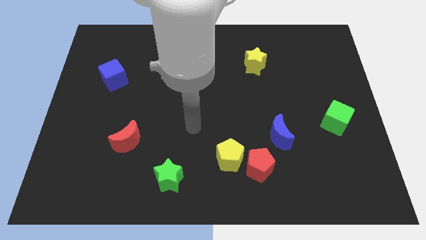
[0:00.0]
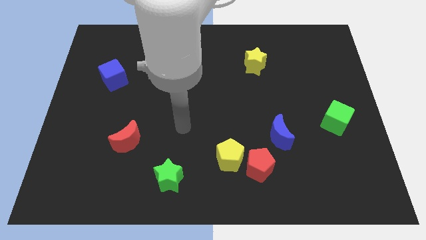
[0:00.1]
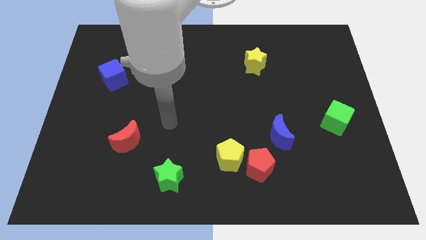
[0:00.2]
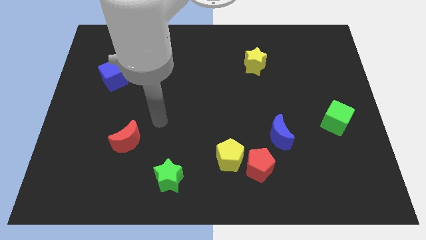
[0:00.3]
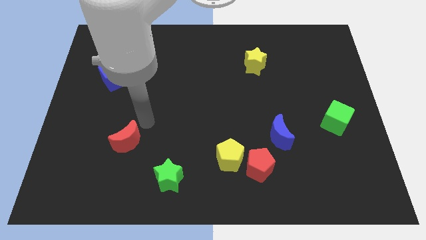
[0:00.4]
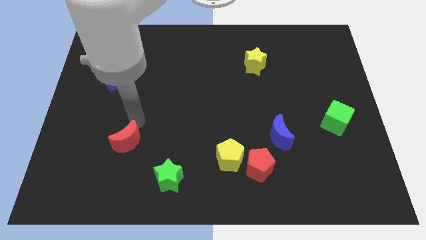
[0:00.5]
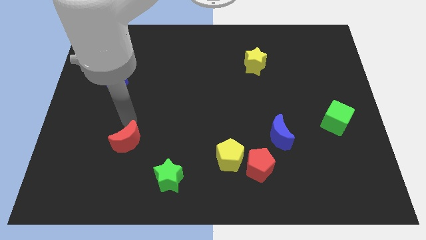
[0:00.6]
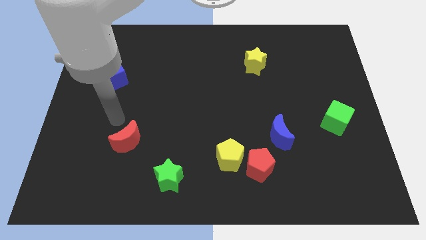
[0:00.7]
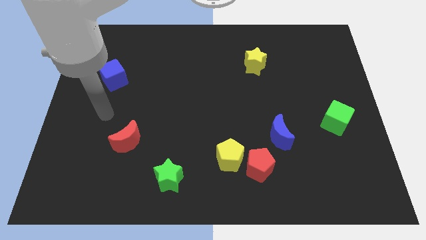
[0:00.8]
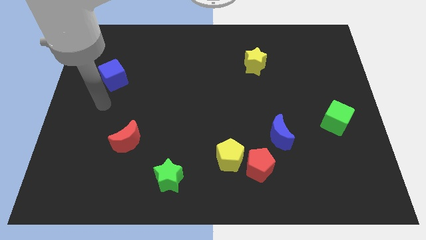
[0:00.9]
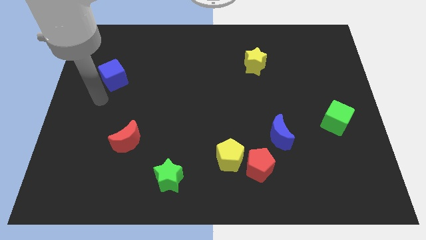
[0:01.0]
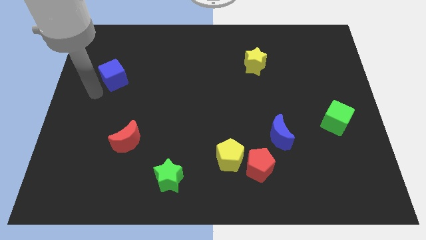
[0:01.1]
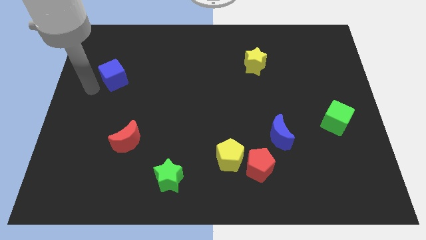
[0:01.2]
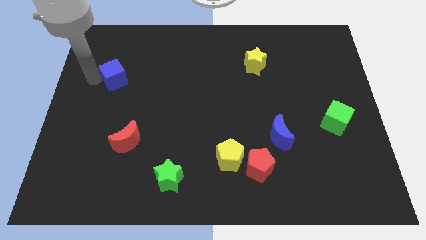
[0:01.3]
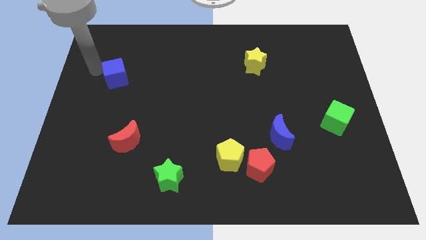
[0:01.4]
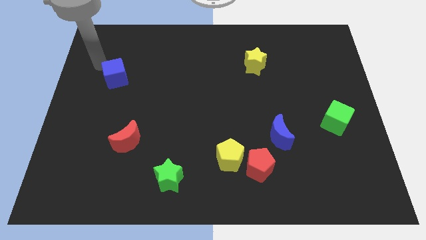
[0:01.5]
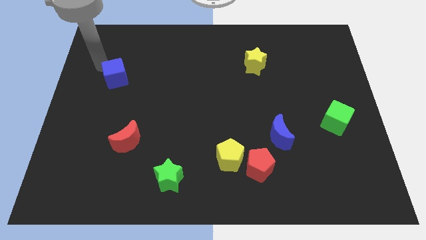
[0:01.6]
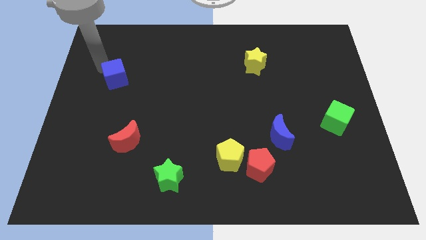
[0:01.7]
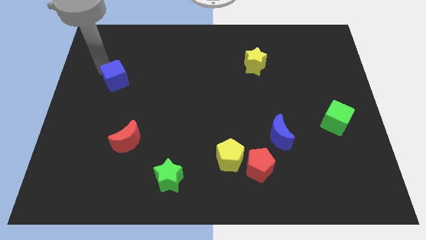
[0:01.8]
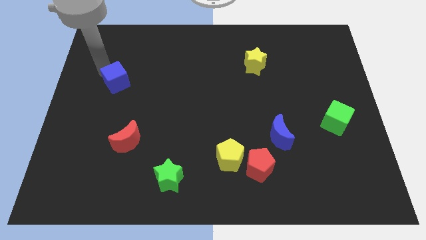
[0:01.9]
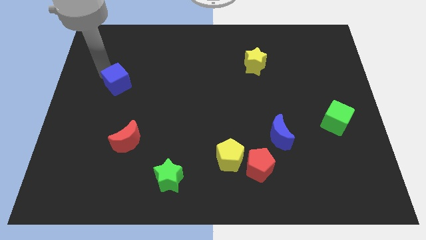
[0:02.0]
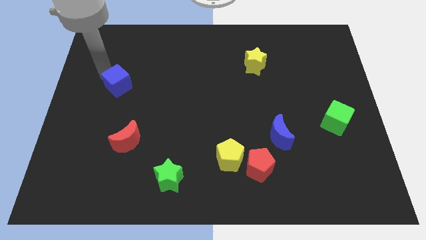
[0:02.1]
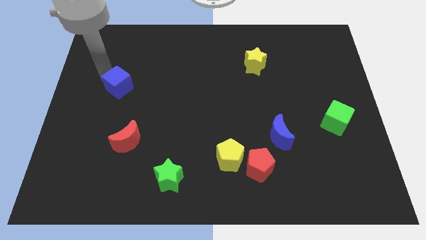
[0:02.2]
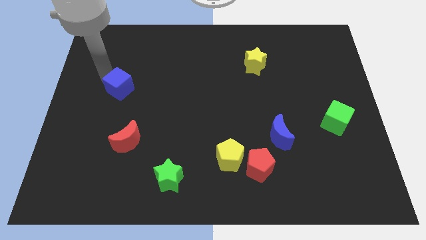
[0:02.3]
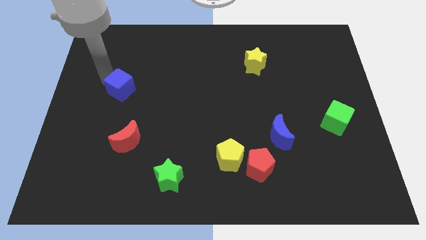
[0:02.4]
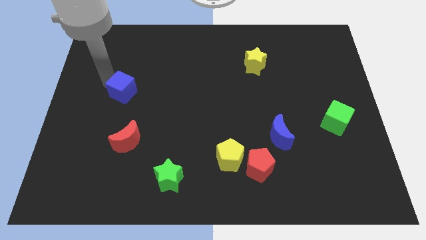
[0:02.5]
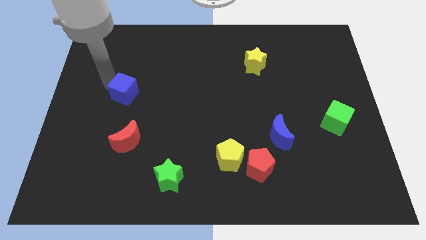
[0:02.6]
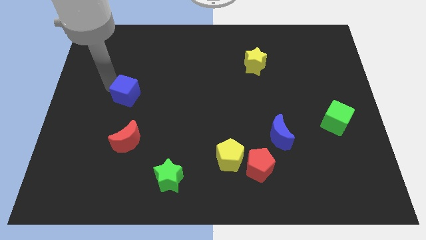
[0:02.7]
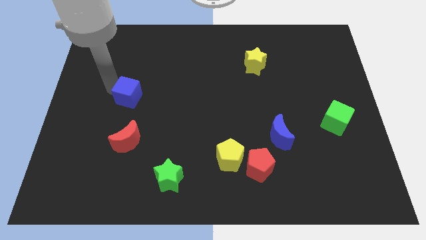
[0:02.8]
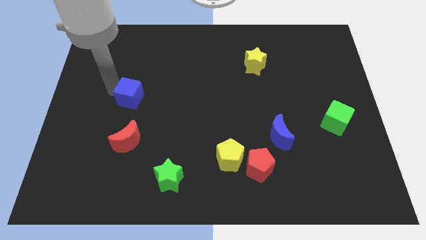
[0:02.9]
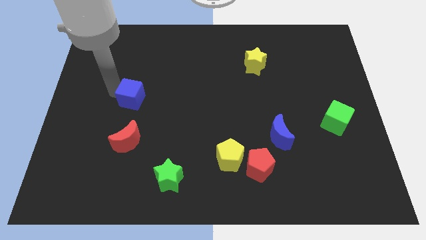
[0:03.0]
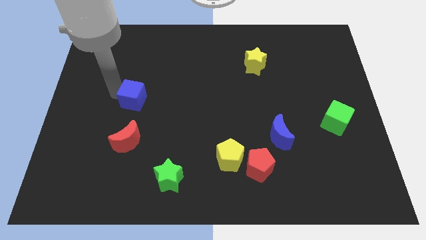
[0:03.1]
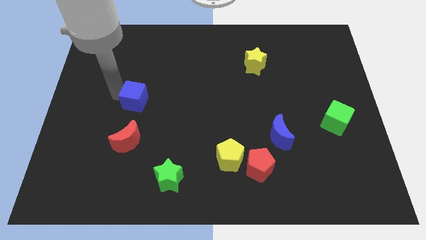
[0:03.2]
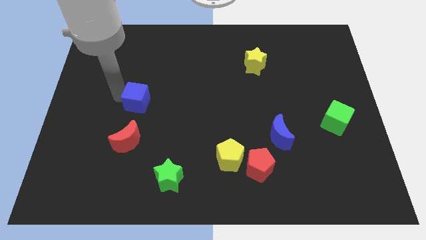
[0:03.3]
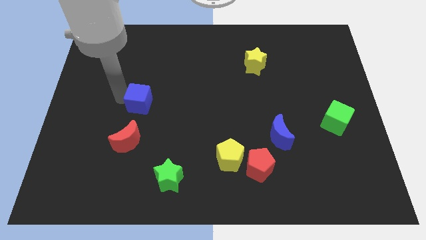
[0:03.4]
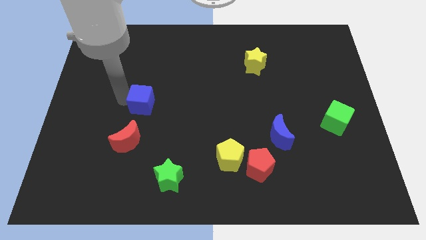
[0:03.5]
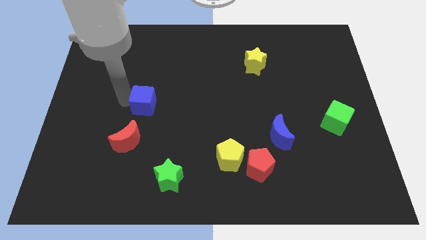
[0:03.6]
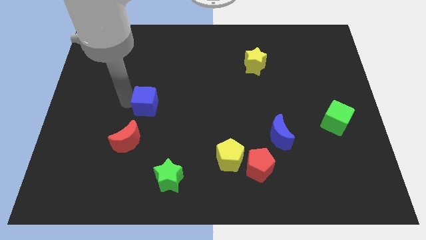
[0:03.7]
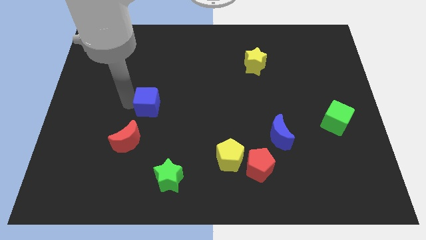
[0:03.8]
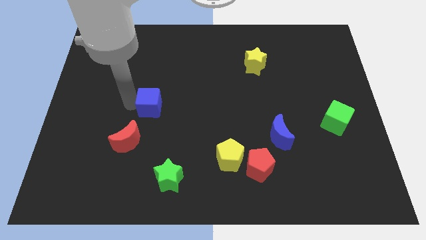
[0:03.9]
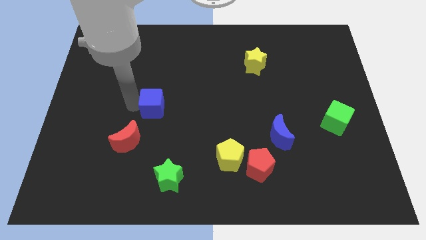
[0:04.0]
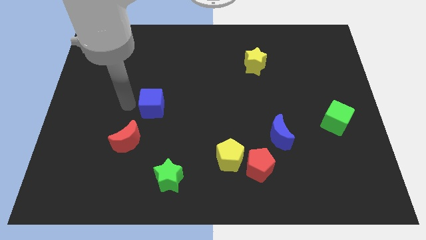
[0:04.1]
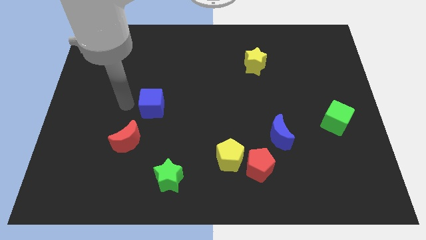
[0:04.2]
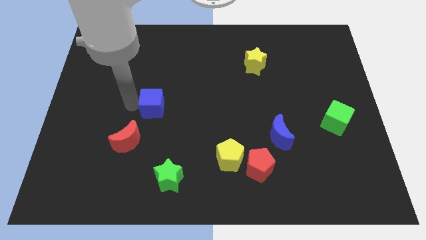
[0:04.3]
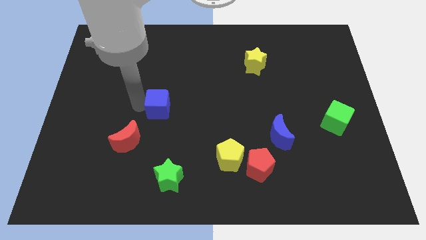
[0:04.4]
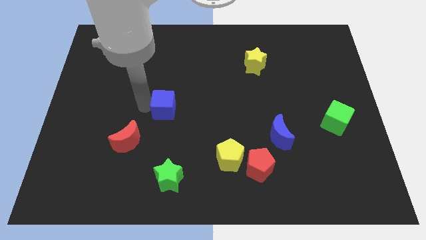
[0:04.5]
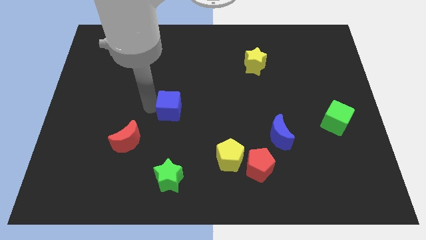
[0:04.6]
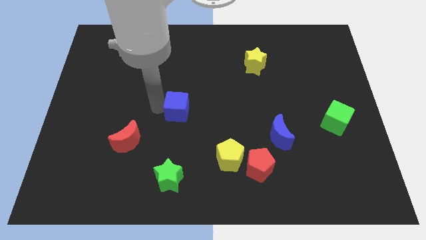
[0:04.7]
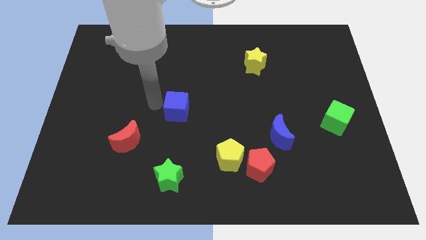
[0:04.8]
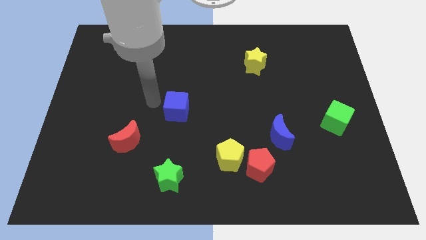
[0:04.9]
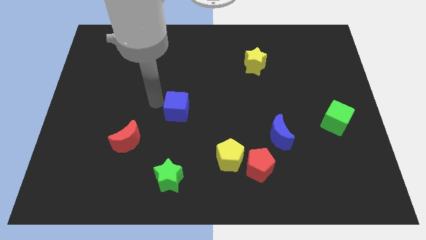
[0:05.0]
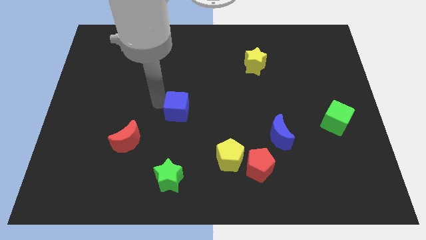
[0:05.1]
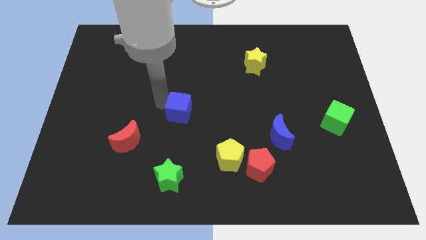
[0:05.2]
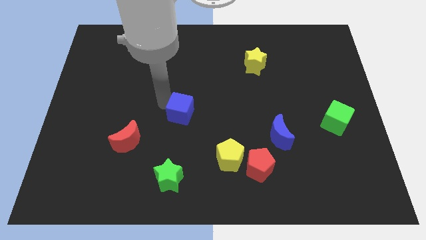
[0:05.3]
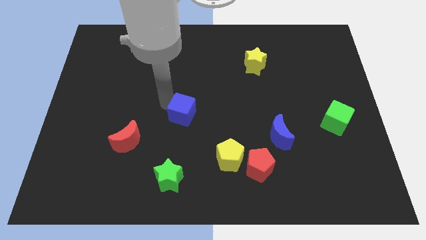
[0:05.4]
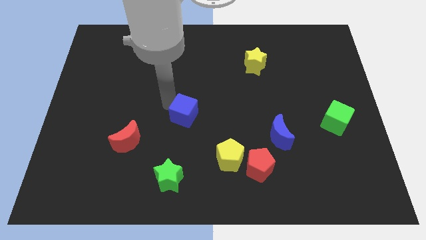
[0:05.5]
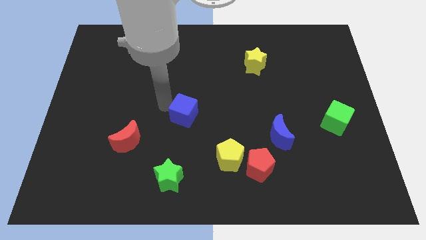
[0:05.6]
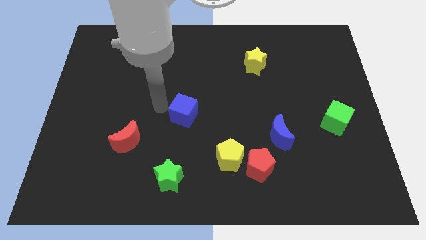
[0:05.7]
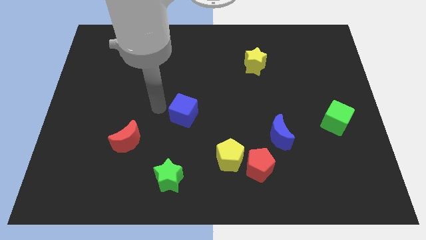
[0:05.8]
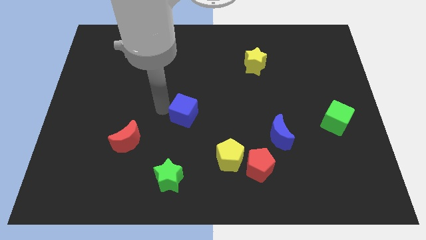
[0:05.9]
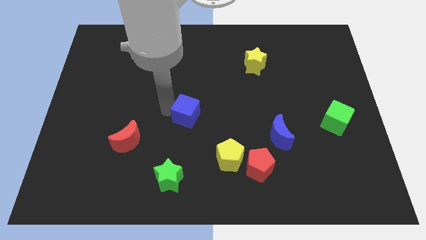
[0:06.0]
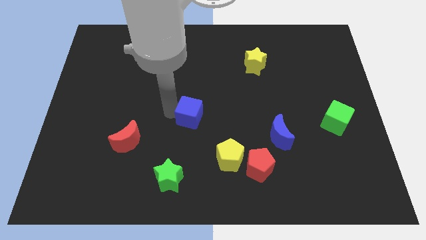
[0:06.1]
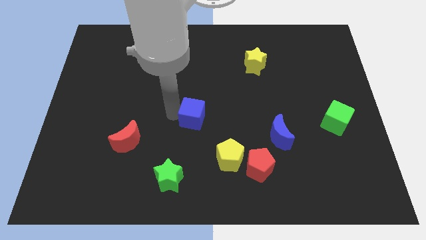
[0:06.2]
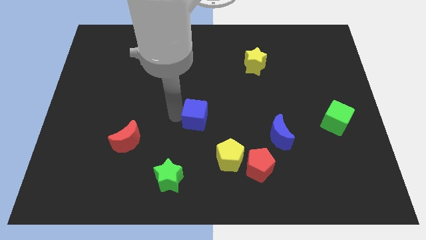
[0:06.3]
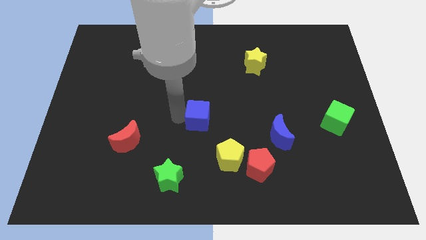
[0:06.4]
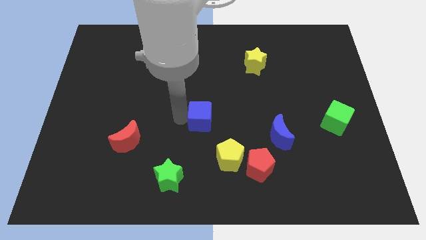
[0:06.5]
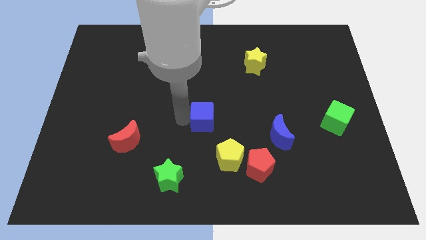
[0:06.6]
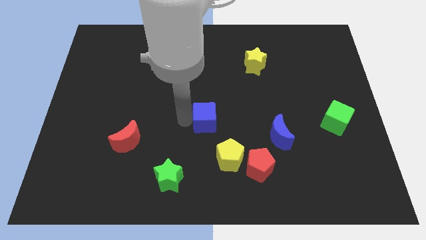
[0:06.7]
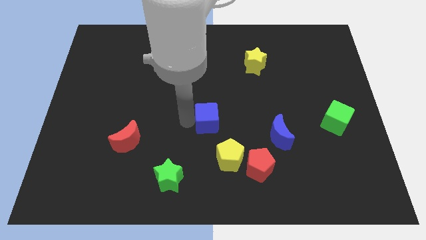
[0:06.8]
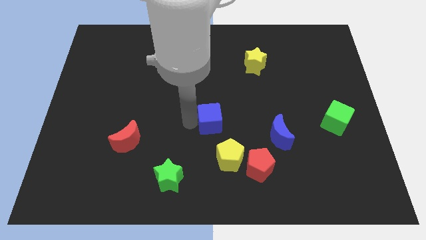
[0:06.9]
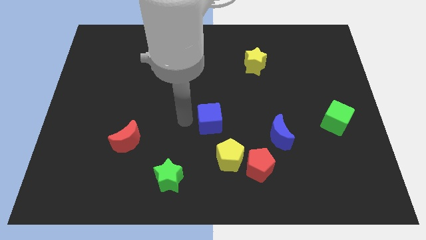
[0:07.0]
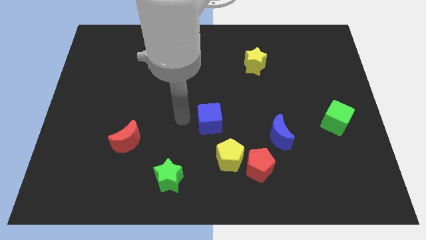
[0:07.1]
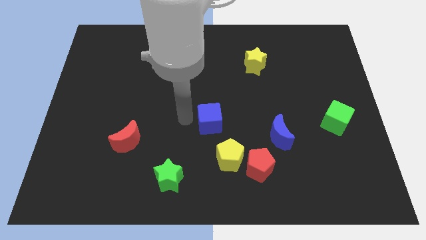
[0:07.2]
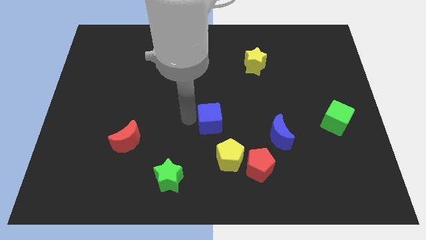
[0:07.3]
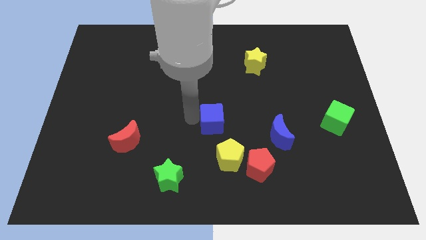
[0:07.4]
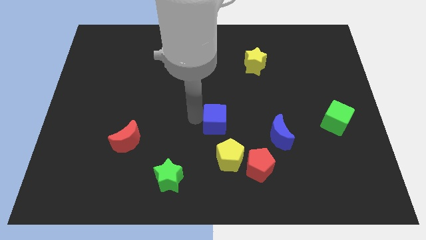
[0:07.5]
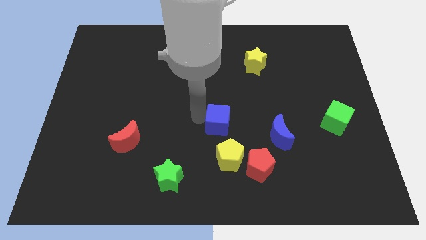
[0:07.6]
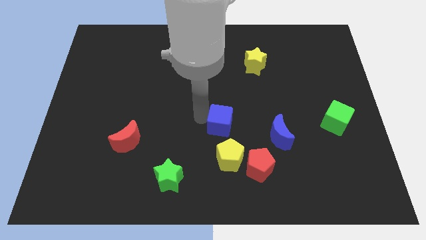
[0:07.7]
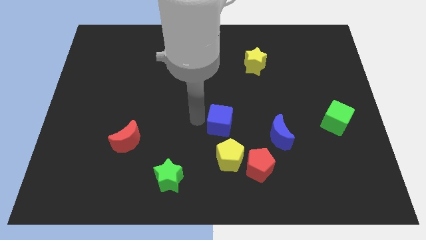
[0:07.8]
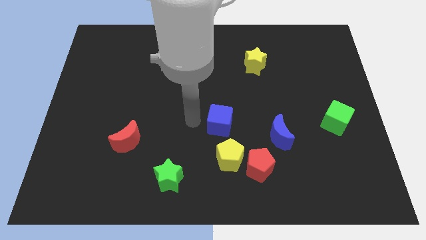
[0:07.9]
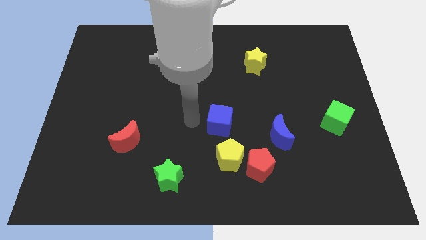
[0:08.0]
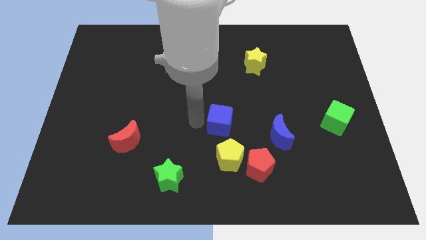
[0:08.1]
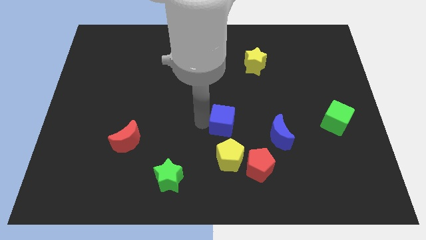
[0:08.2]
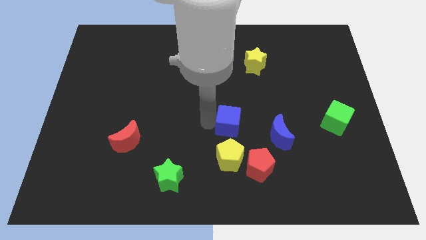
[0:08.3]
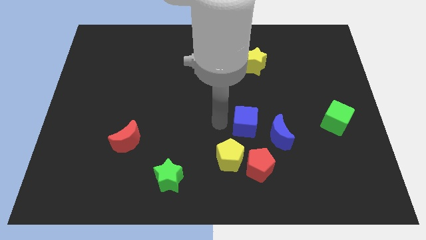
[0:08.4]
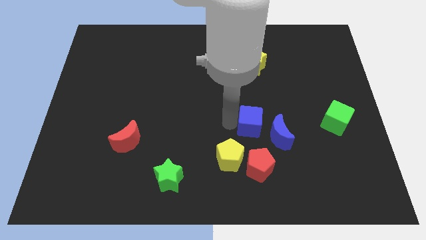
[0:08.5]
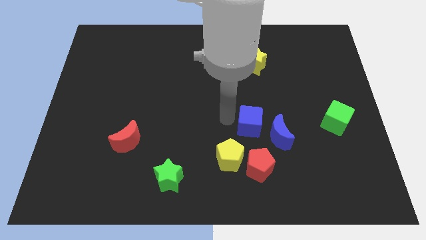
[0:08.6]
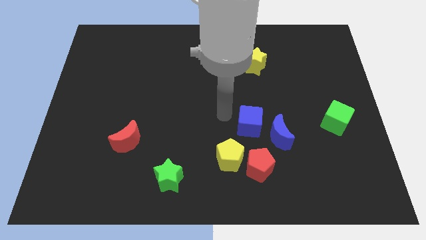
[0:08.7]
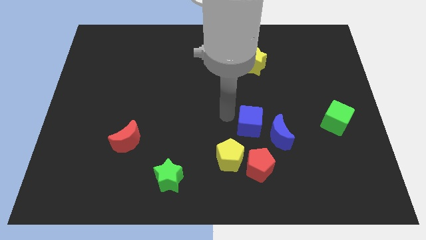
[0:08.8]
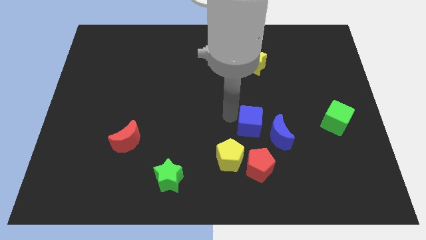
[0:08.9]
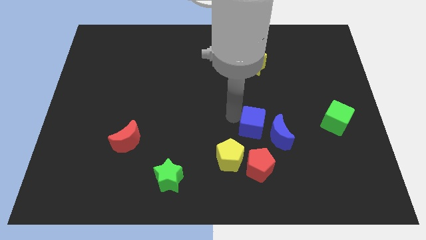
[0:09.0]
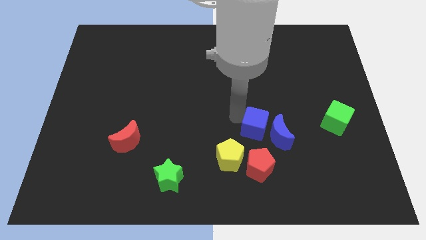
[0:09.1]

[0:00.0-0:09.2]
put the blue cube next to the blue moon
